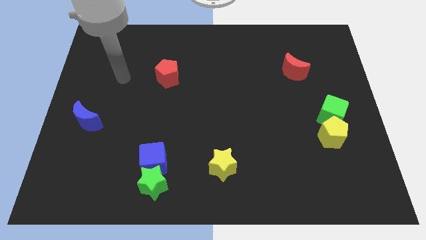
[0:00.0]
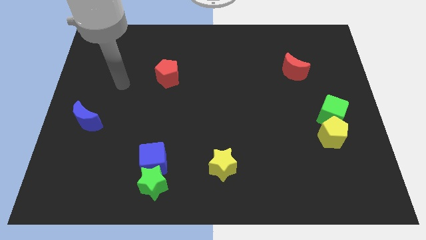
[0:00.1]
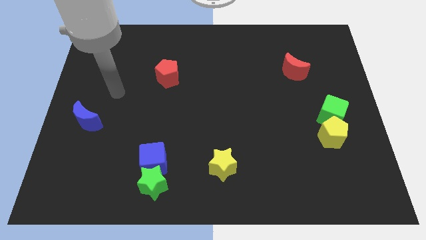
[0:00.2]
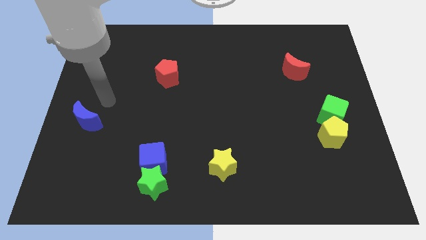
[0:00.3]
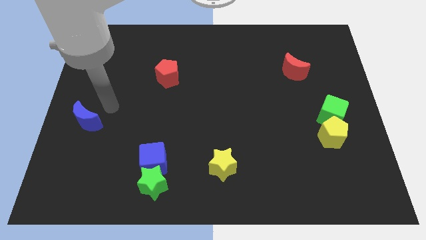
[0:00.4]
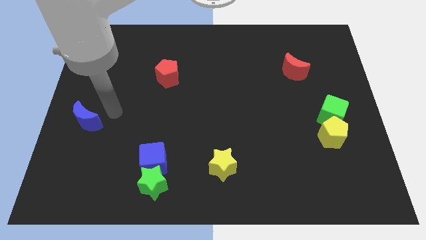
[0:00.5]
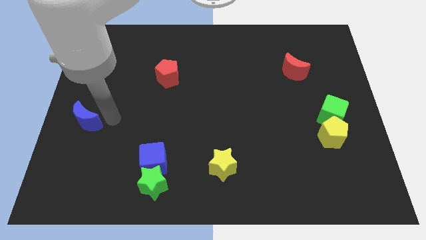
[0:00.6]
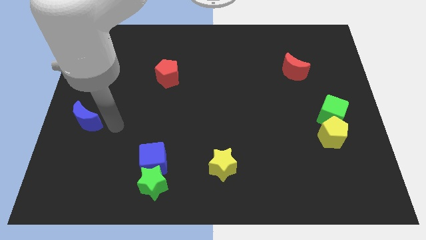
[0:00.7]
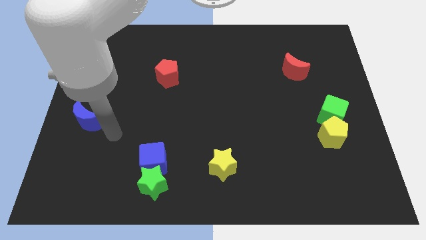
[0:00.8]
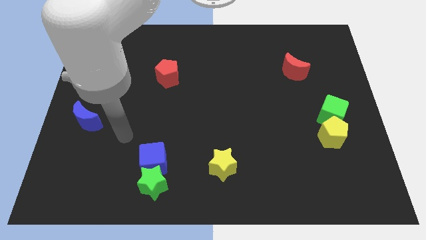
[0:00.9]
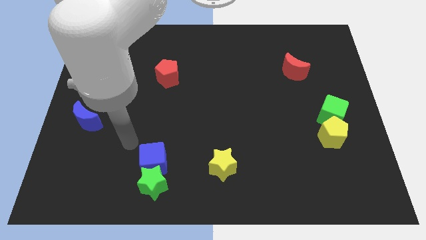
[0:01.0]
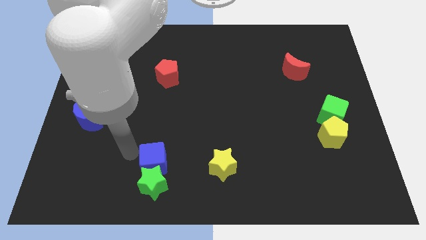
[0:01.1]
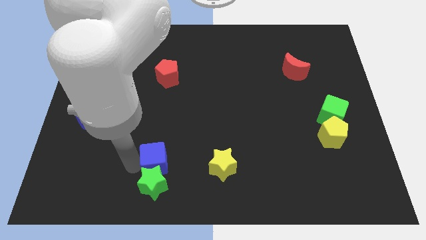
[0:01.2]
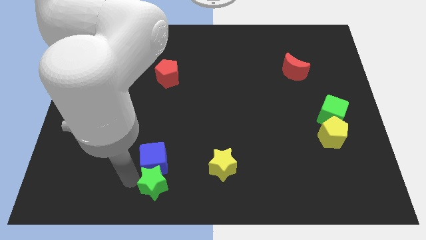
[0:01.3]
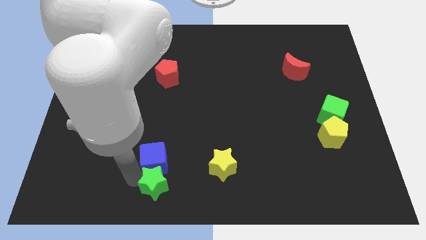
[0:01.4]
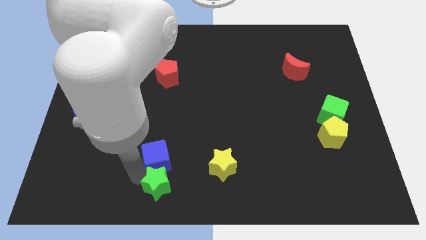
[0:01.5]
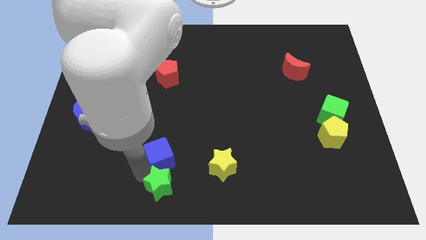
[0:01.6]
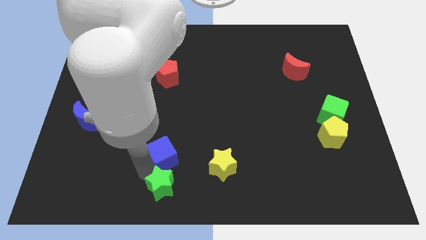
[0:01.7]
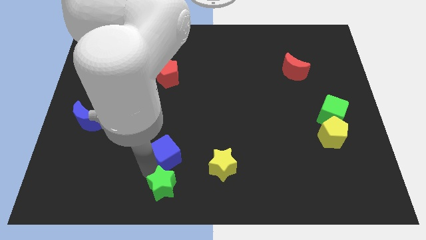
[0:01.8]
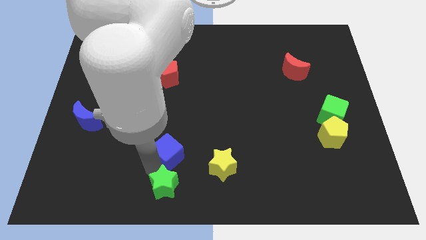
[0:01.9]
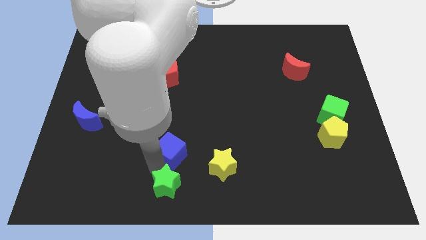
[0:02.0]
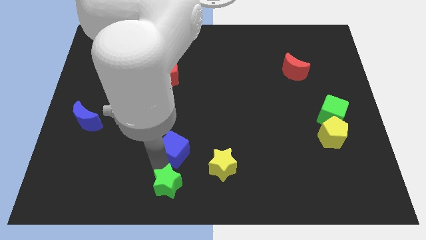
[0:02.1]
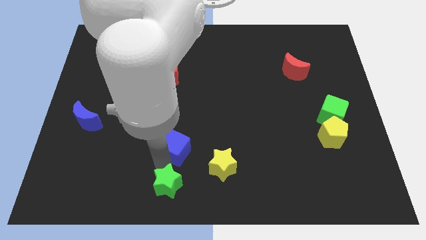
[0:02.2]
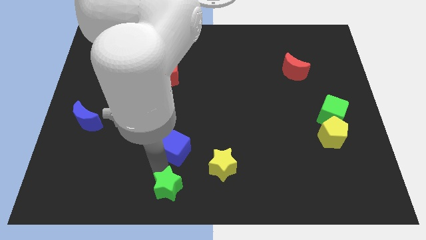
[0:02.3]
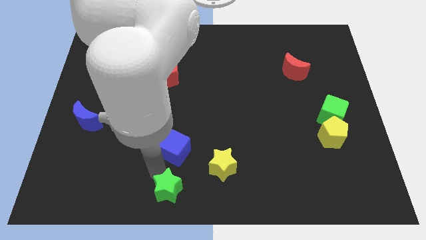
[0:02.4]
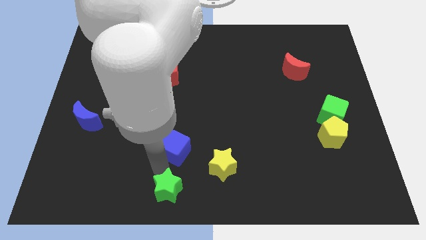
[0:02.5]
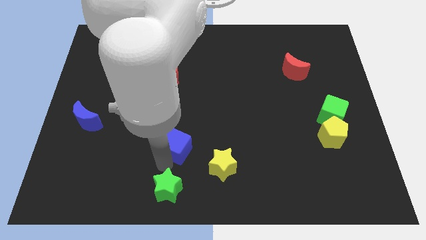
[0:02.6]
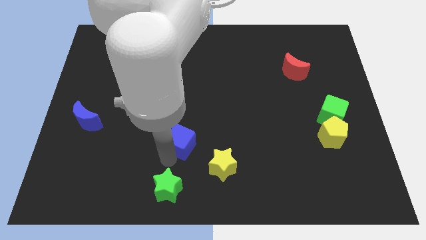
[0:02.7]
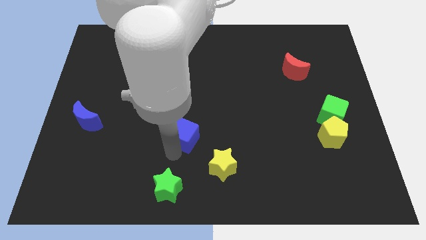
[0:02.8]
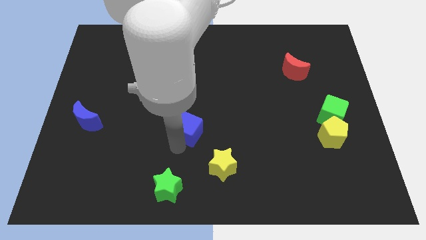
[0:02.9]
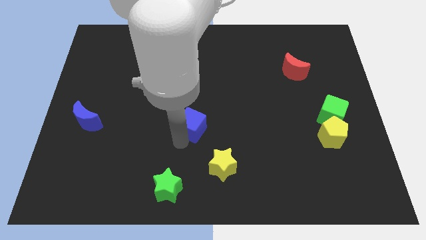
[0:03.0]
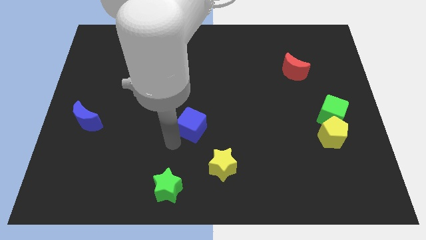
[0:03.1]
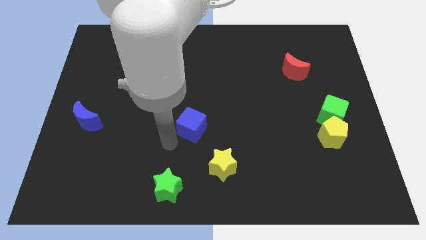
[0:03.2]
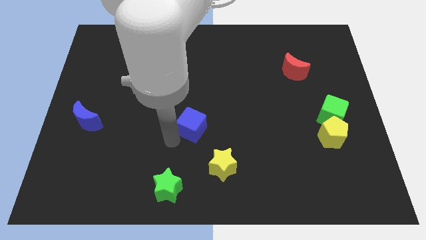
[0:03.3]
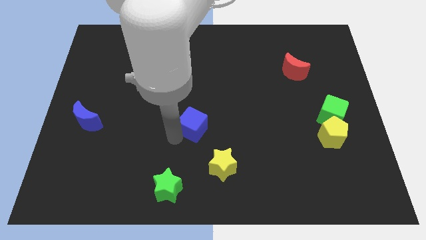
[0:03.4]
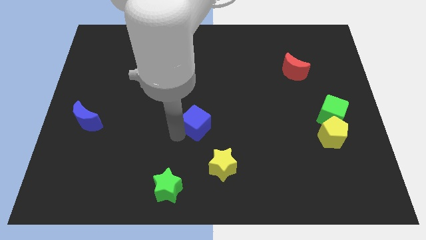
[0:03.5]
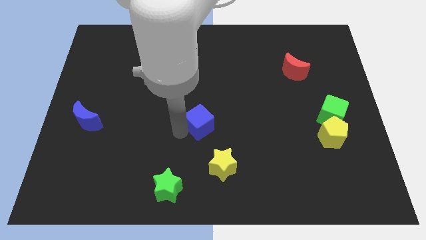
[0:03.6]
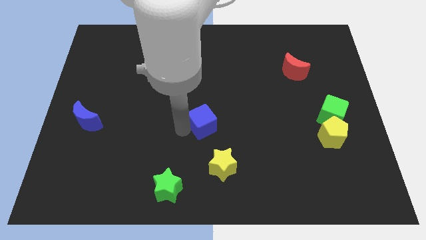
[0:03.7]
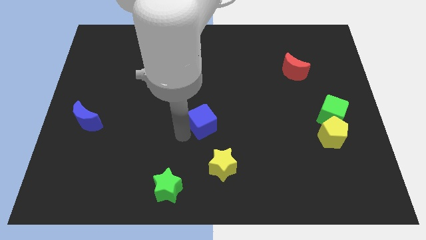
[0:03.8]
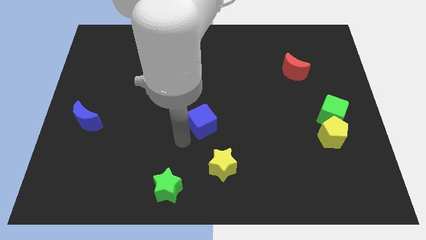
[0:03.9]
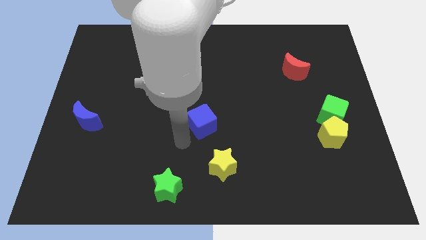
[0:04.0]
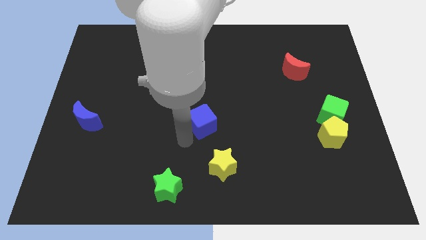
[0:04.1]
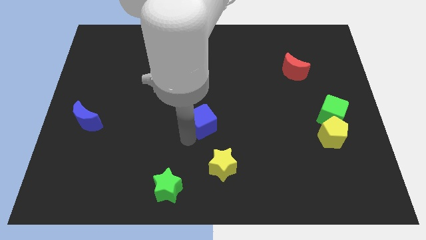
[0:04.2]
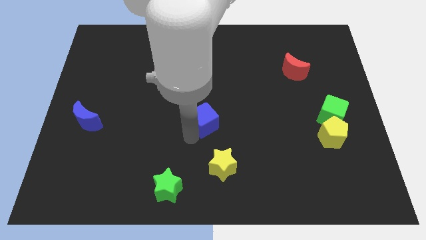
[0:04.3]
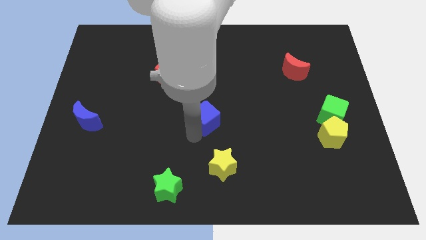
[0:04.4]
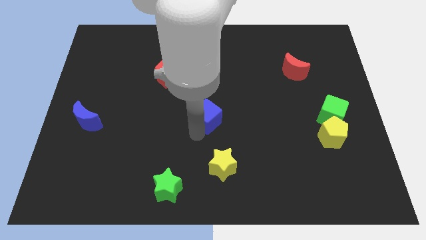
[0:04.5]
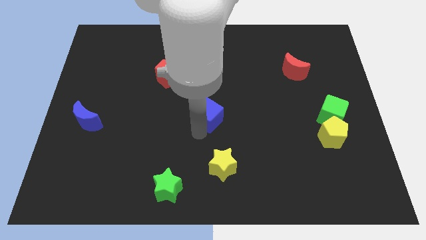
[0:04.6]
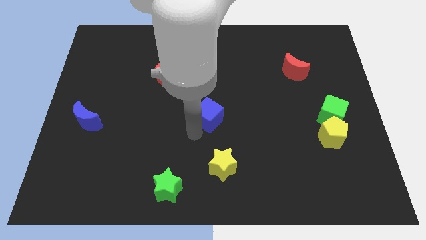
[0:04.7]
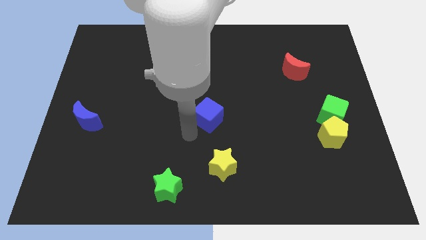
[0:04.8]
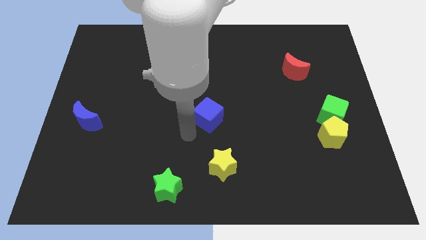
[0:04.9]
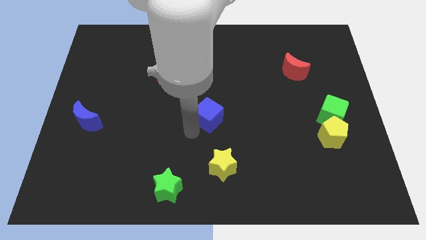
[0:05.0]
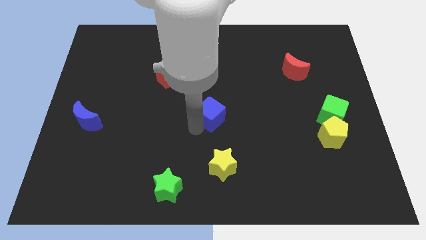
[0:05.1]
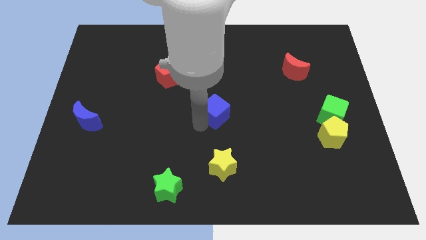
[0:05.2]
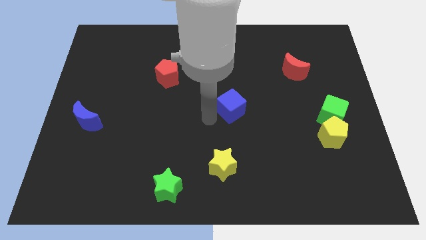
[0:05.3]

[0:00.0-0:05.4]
move the blue cube up and right

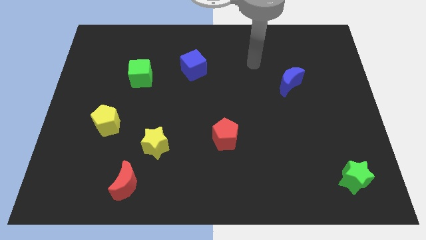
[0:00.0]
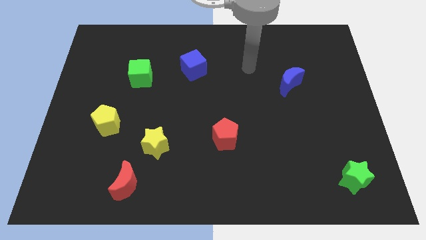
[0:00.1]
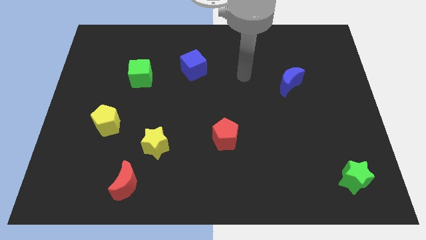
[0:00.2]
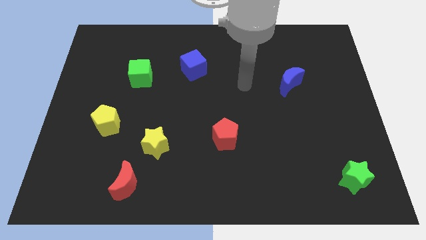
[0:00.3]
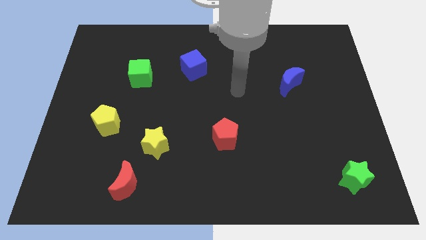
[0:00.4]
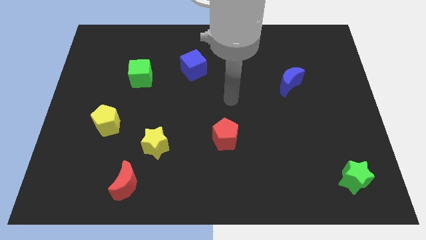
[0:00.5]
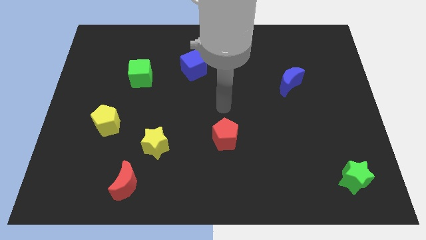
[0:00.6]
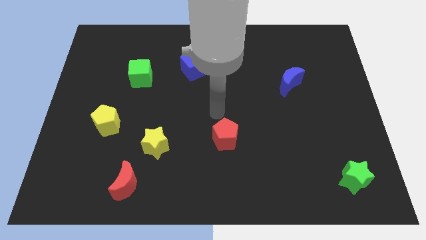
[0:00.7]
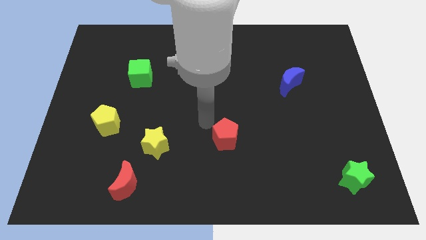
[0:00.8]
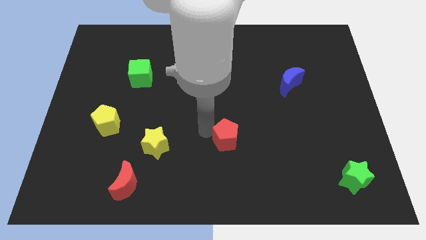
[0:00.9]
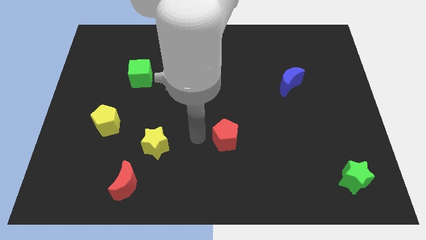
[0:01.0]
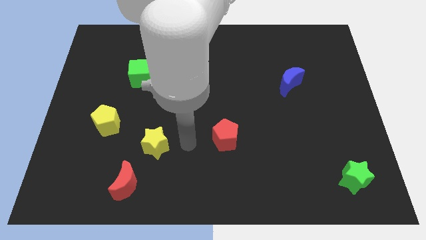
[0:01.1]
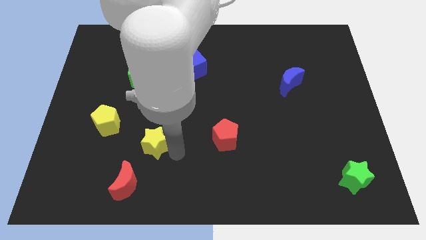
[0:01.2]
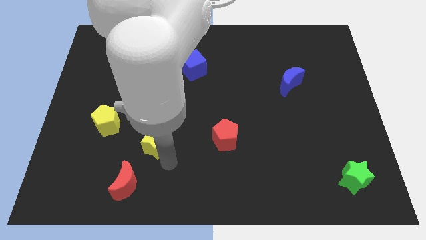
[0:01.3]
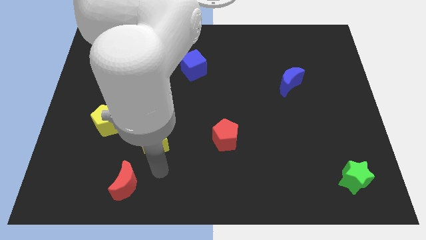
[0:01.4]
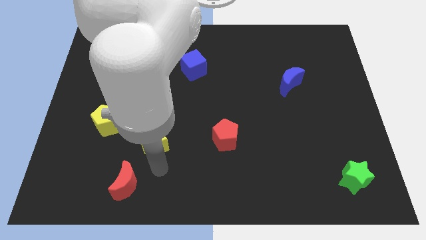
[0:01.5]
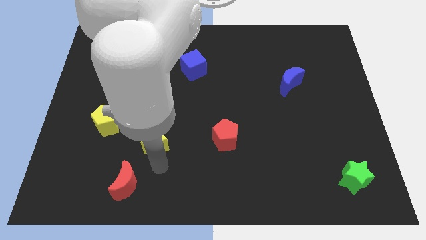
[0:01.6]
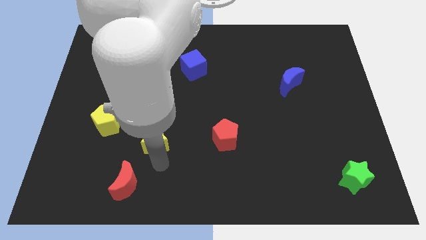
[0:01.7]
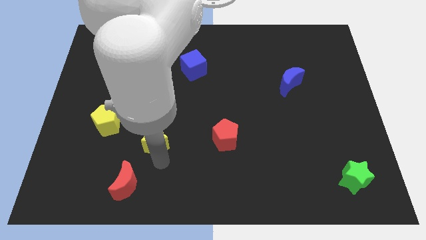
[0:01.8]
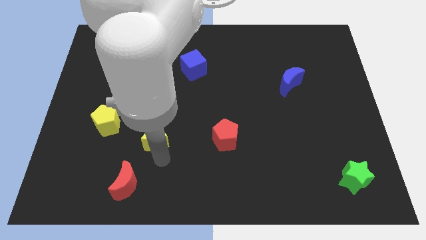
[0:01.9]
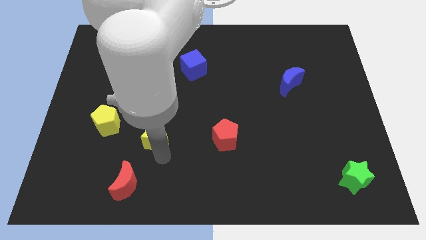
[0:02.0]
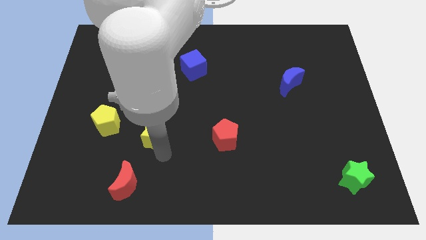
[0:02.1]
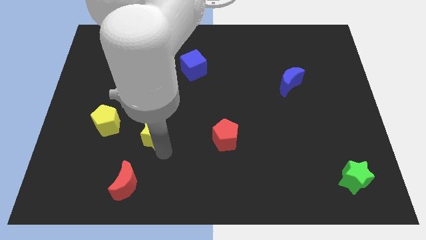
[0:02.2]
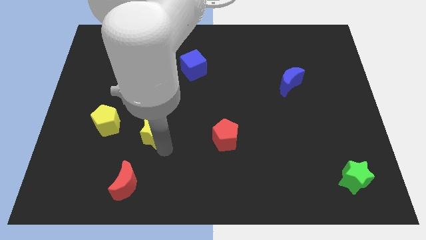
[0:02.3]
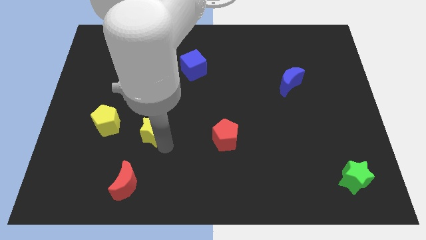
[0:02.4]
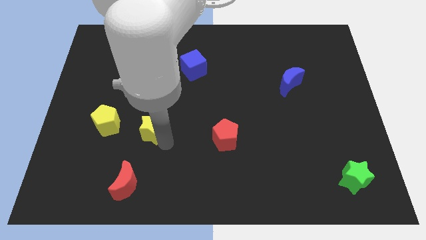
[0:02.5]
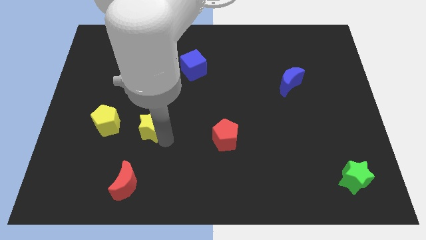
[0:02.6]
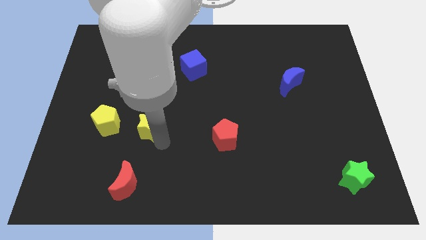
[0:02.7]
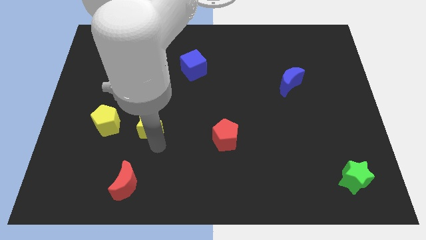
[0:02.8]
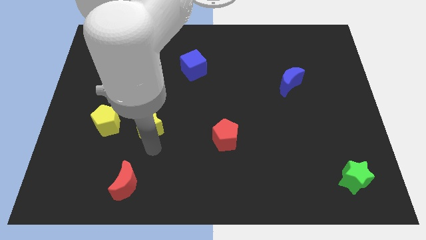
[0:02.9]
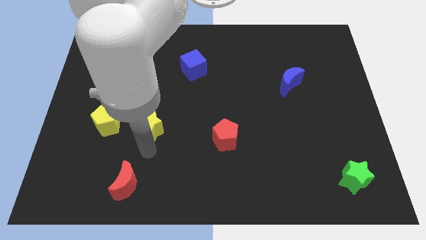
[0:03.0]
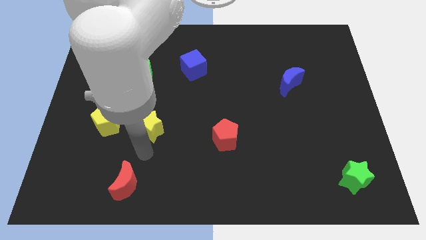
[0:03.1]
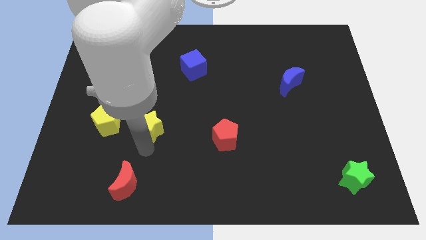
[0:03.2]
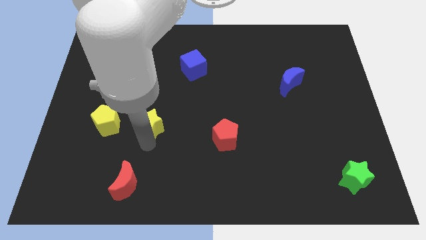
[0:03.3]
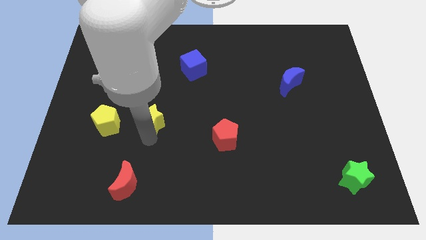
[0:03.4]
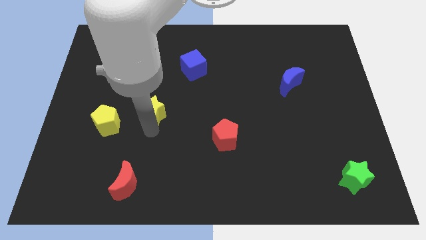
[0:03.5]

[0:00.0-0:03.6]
slightly move the yellow star up
